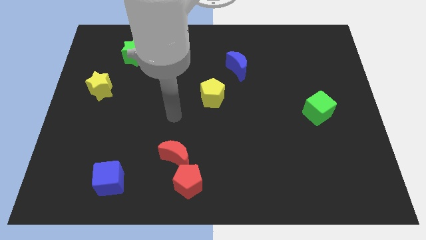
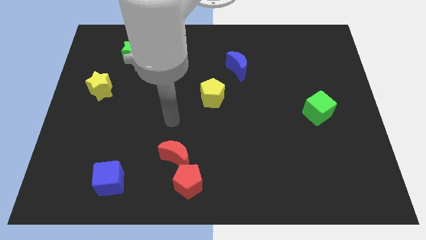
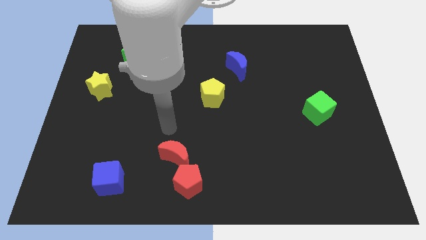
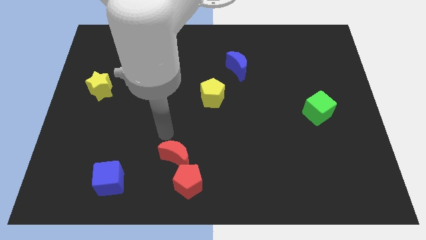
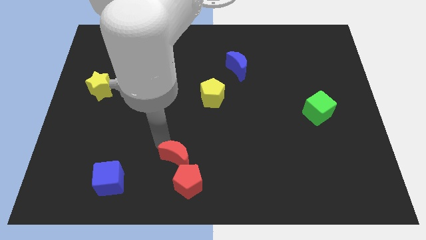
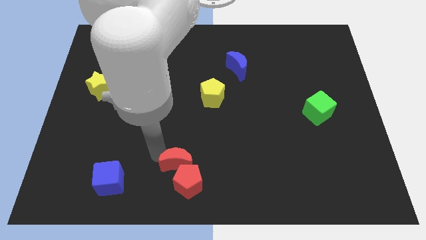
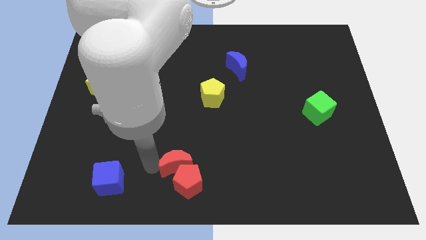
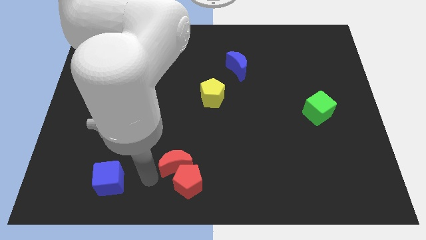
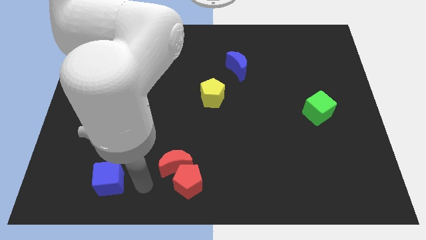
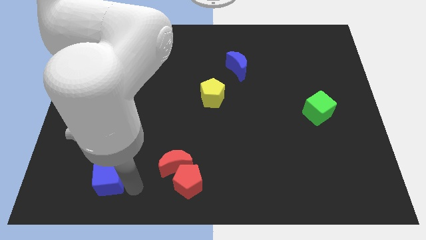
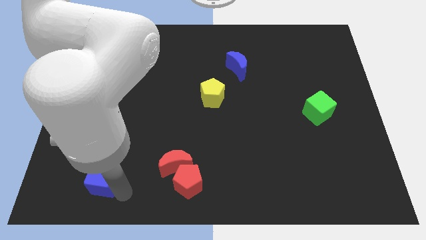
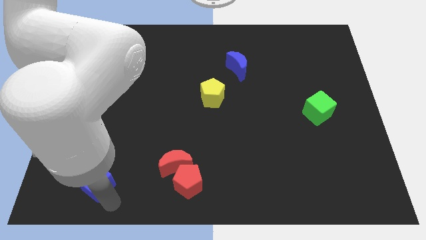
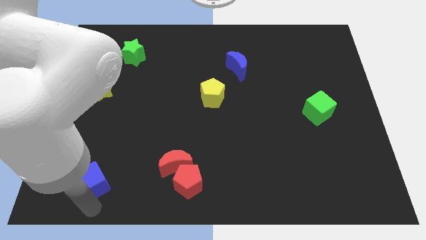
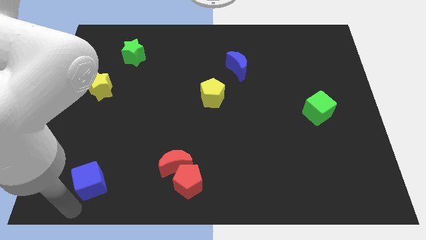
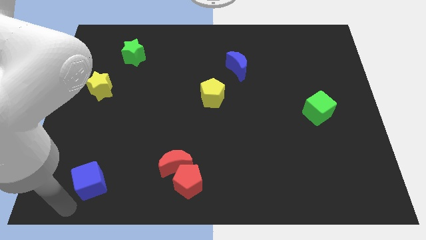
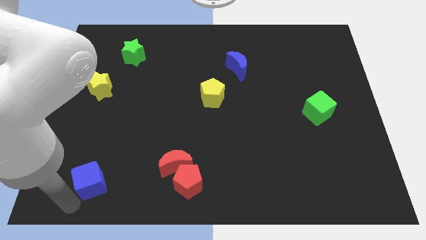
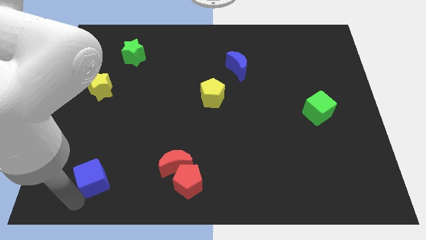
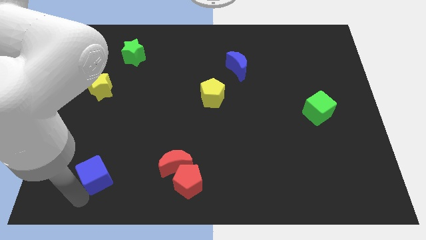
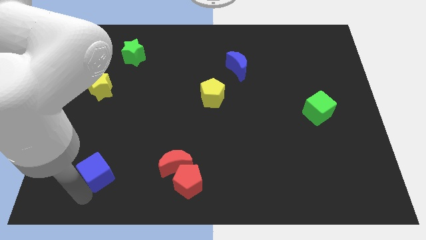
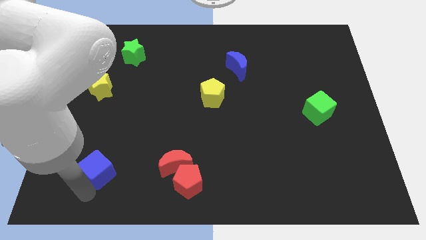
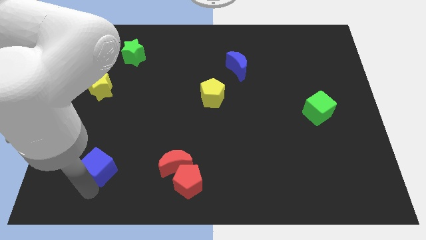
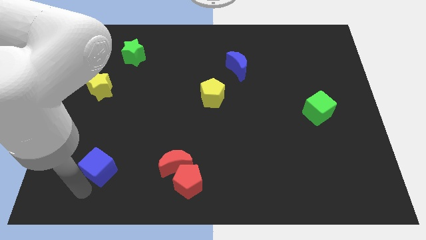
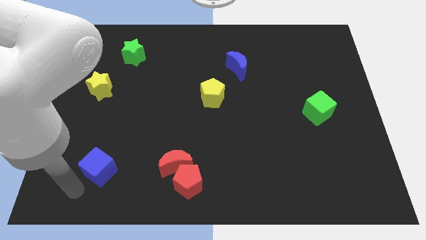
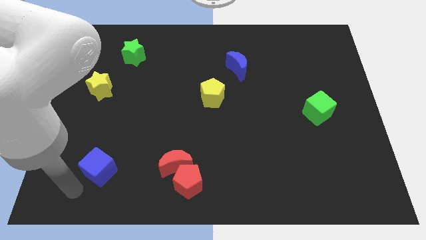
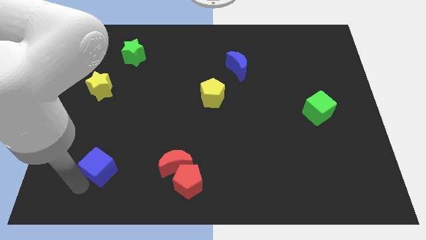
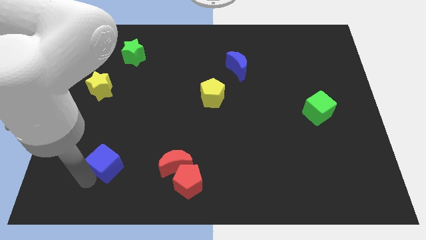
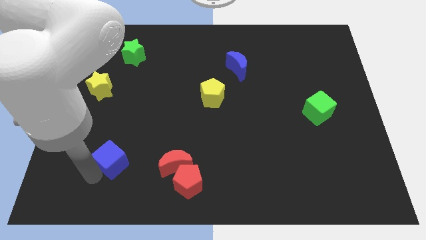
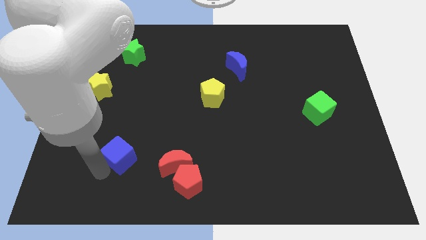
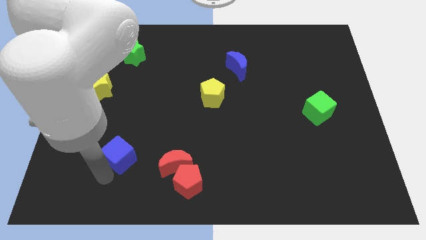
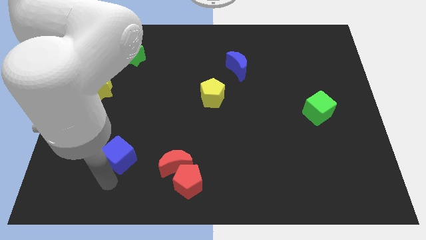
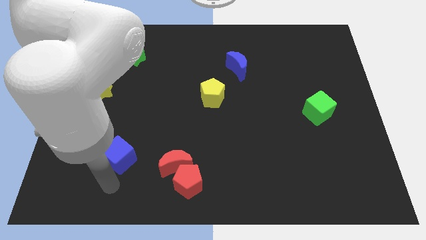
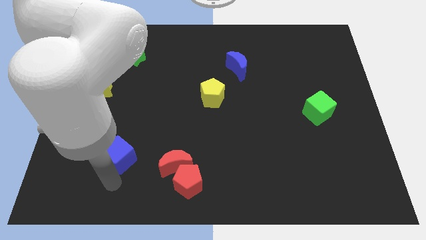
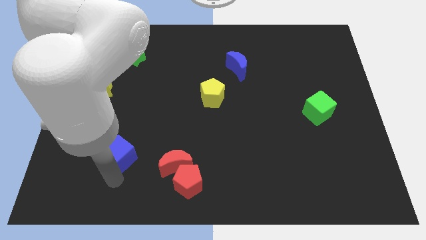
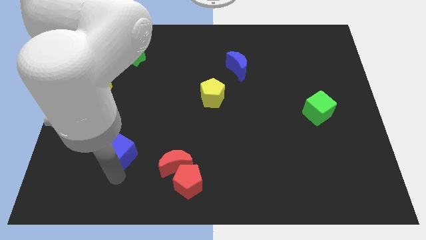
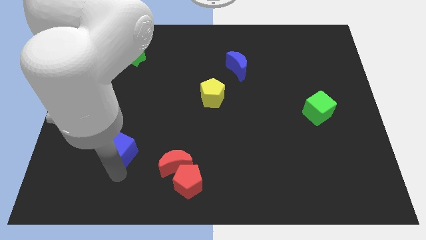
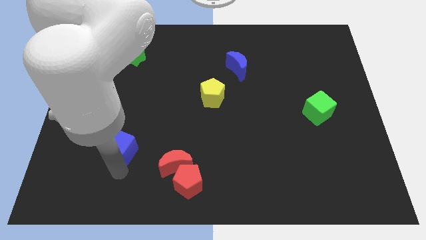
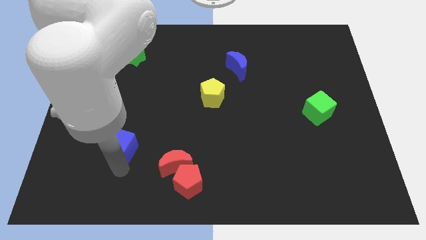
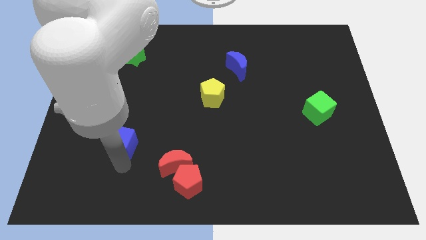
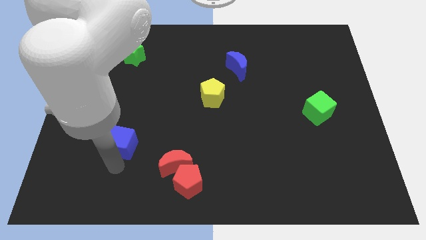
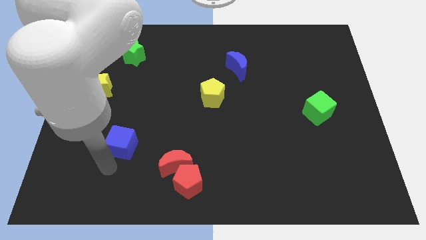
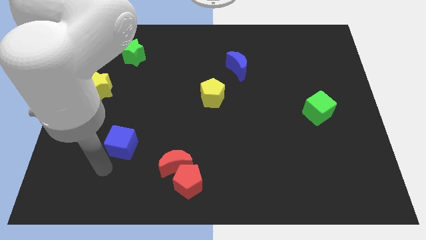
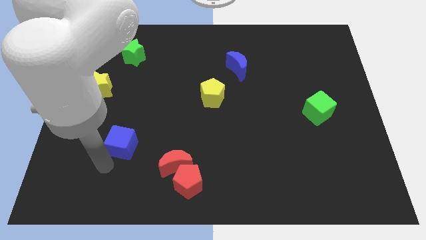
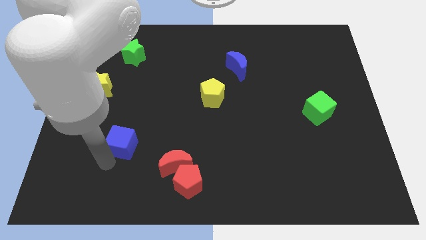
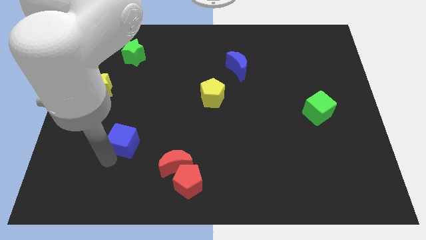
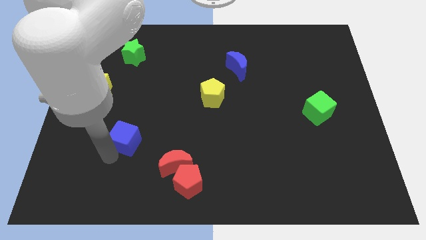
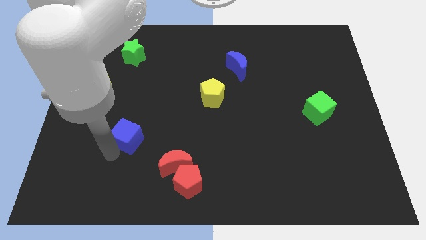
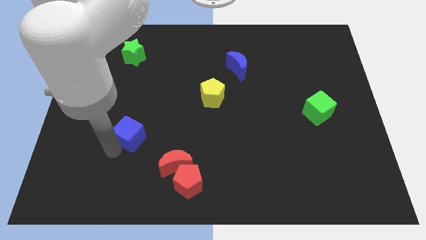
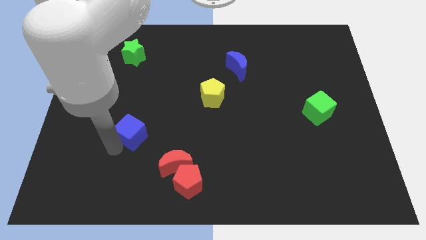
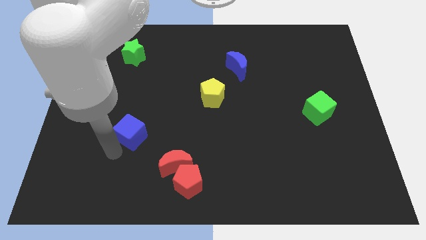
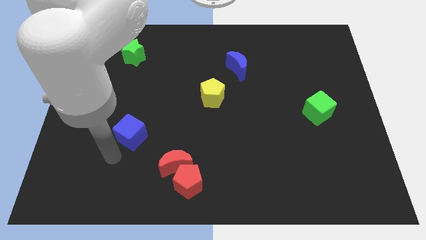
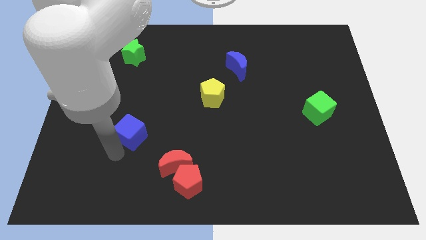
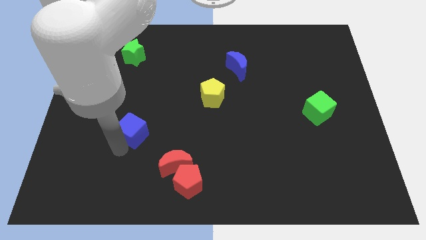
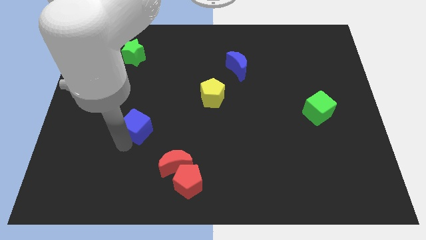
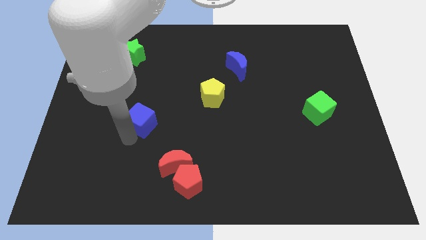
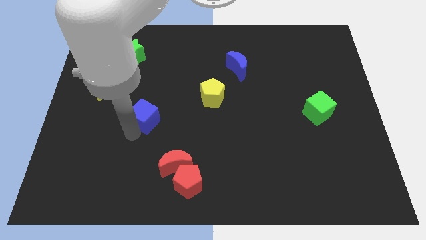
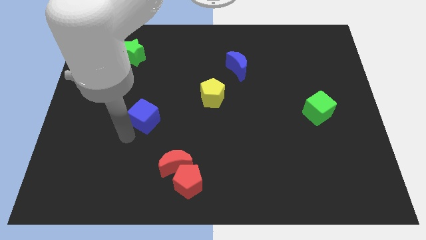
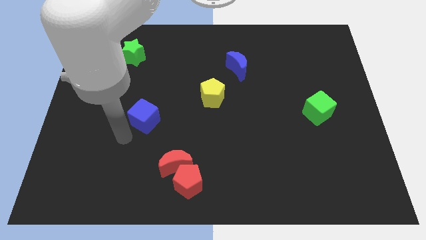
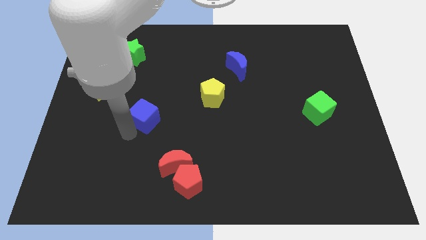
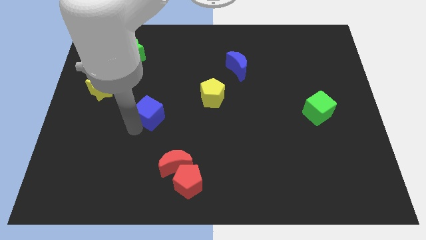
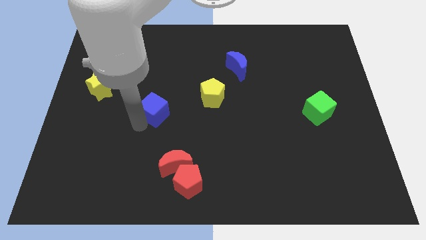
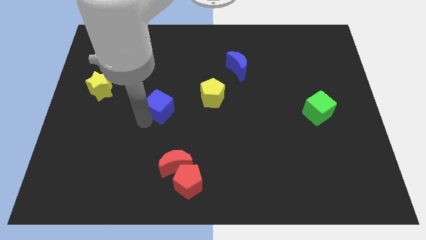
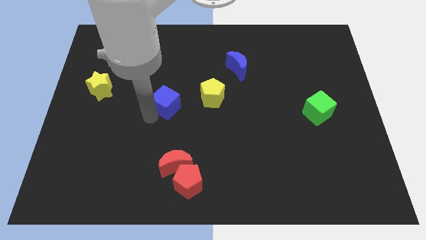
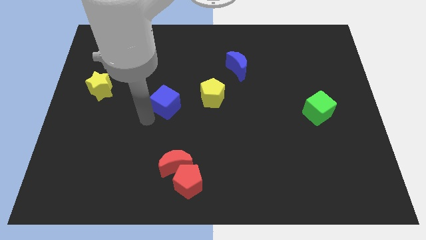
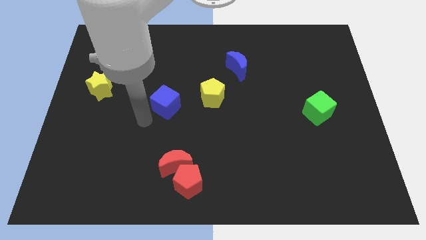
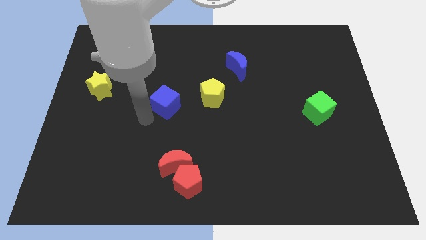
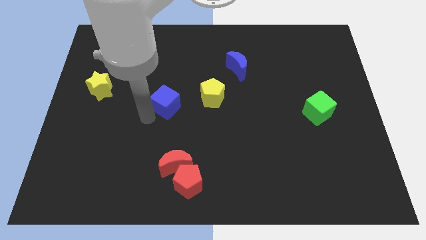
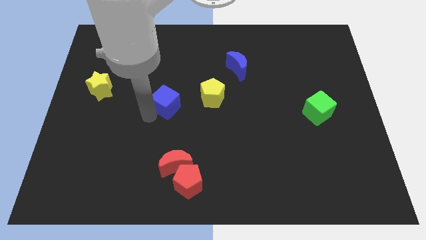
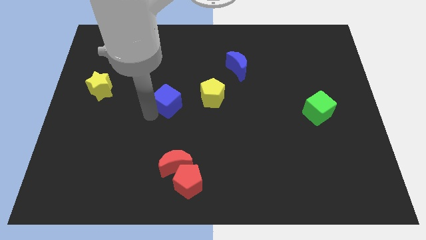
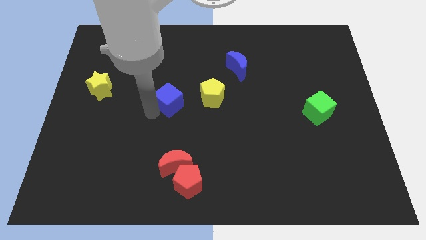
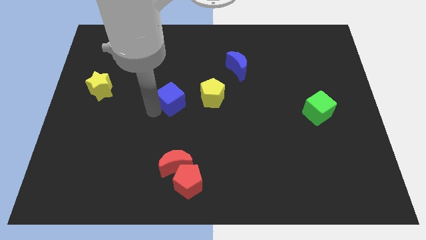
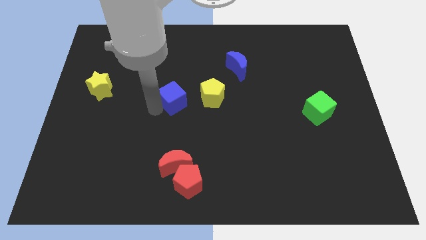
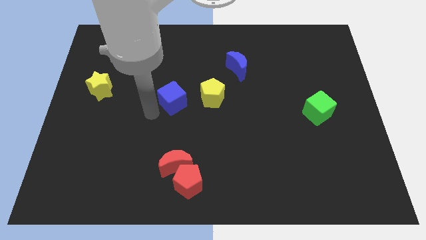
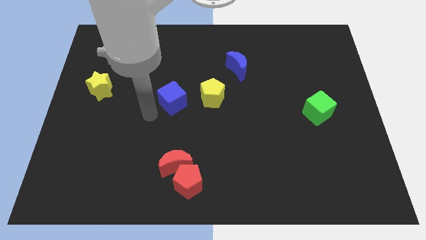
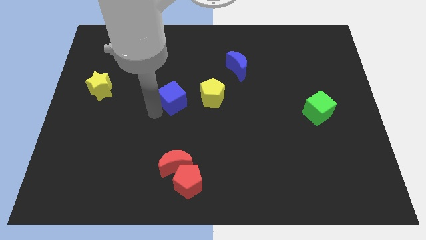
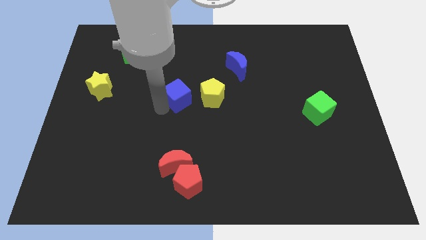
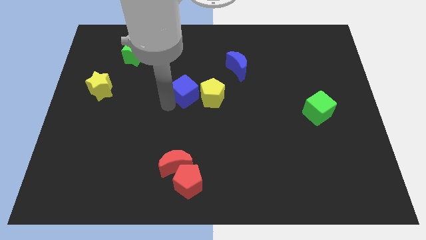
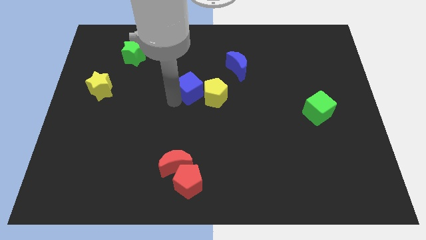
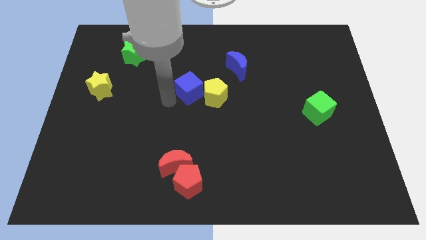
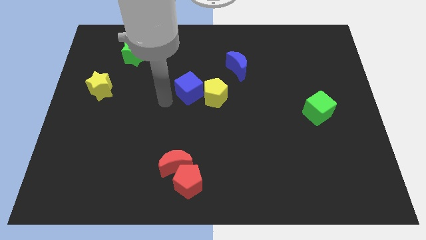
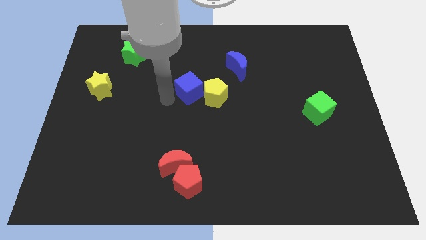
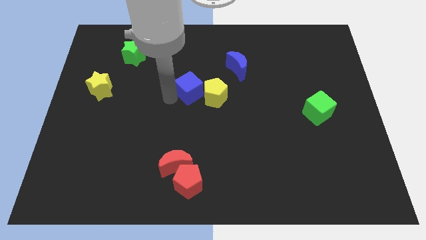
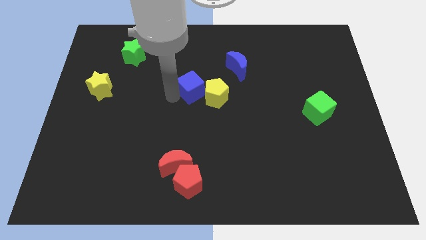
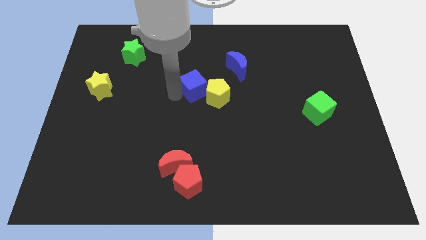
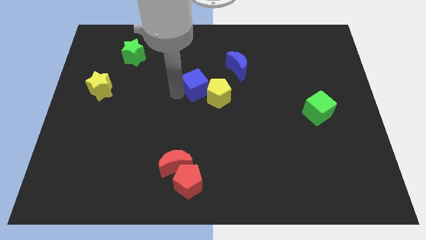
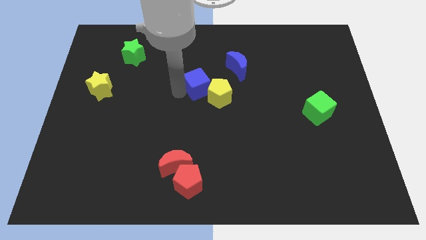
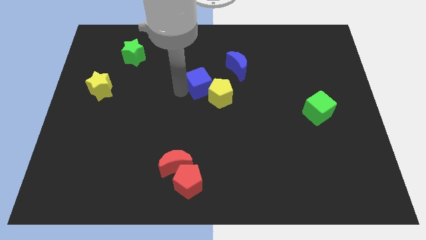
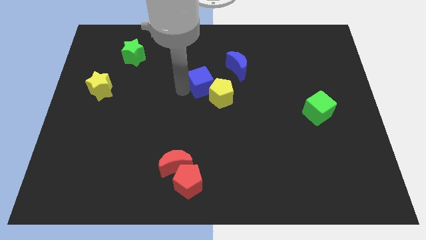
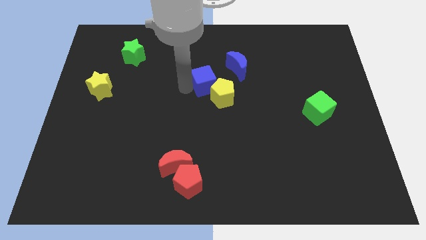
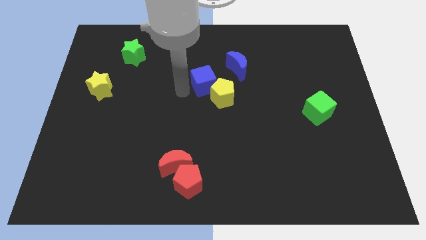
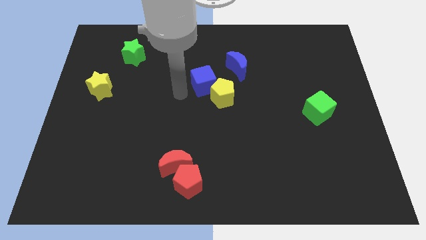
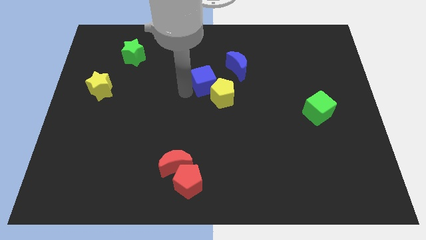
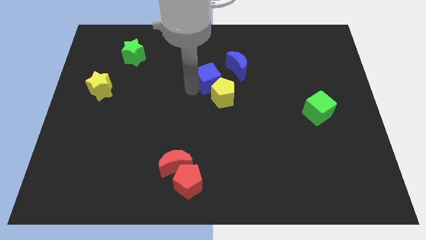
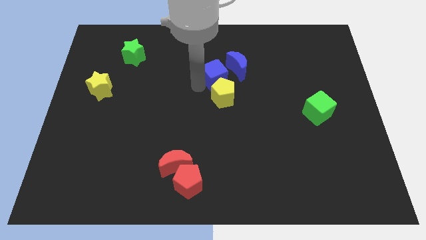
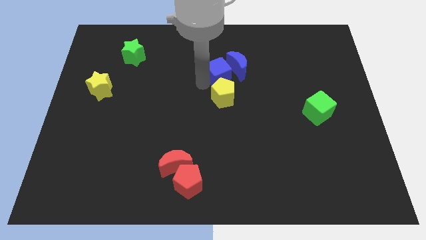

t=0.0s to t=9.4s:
push the blue cube next to the blue moon
